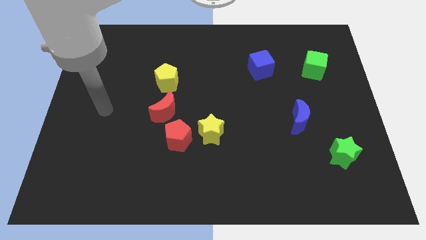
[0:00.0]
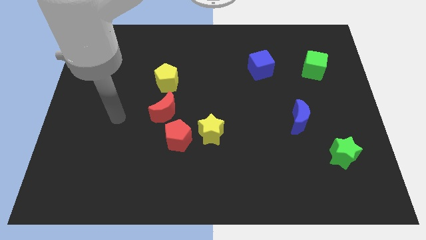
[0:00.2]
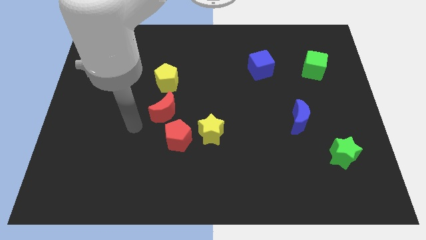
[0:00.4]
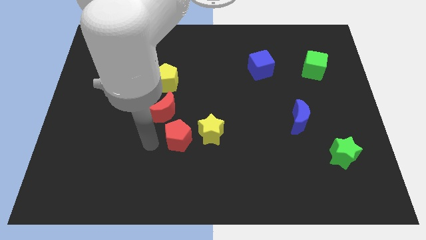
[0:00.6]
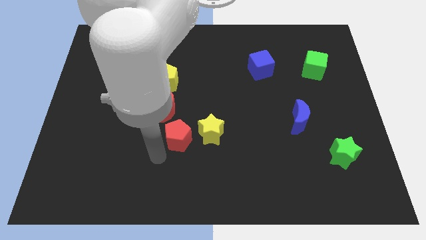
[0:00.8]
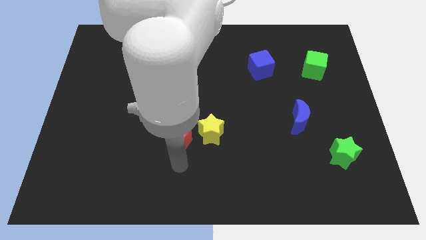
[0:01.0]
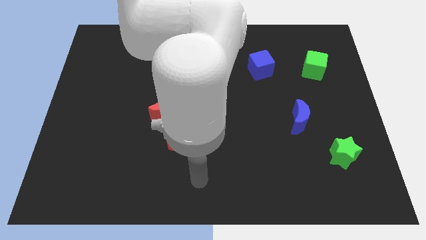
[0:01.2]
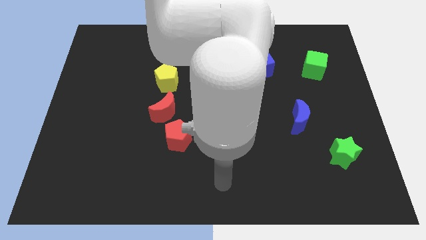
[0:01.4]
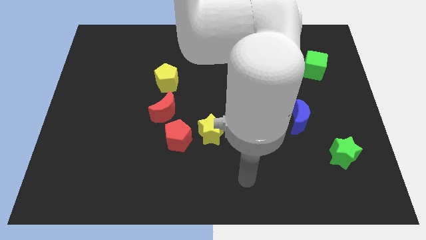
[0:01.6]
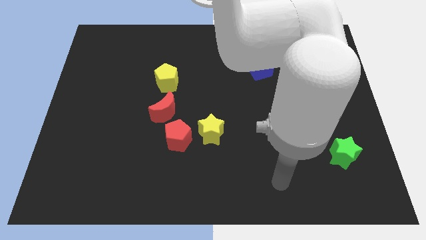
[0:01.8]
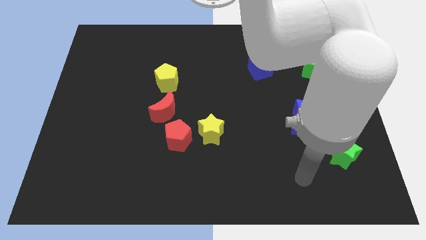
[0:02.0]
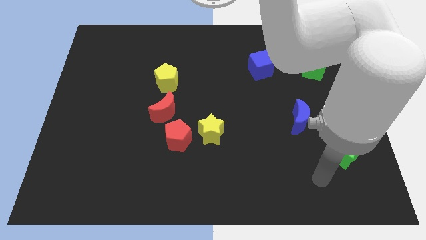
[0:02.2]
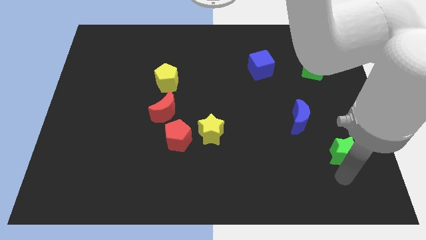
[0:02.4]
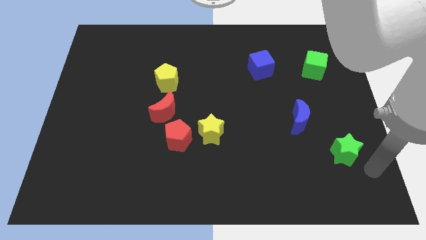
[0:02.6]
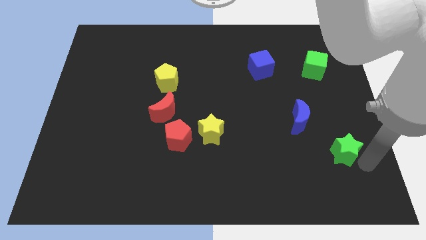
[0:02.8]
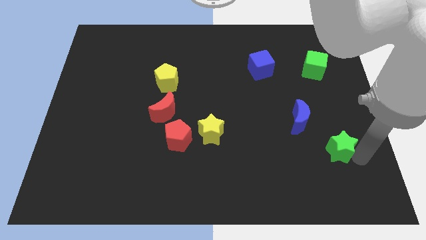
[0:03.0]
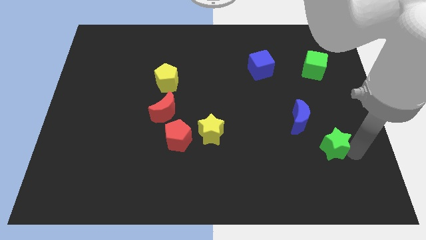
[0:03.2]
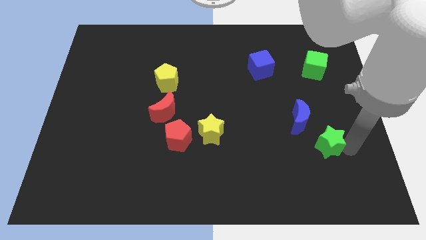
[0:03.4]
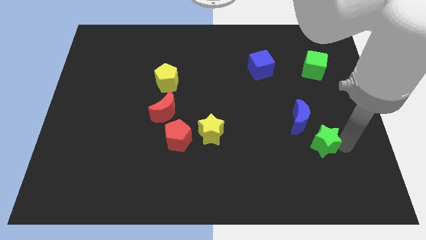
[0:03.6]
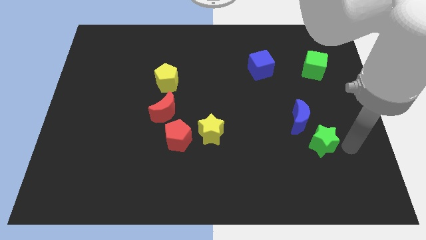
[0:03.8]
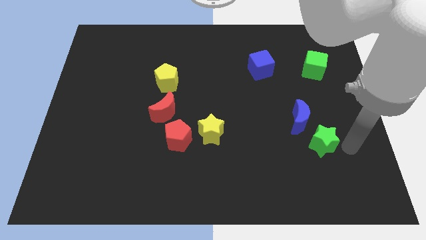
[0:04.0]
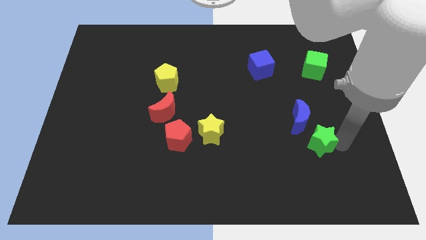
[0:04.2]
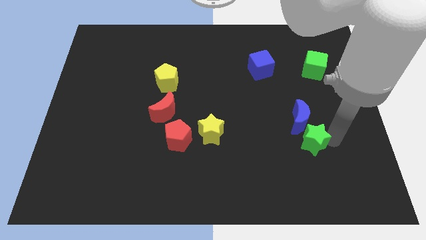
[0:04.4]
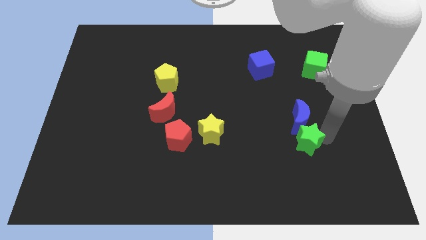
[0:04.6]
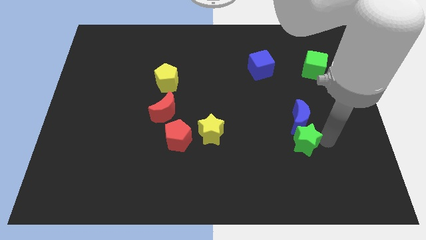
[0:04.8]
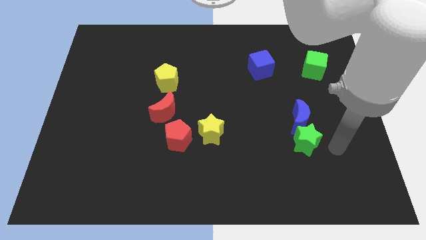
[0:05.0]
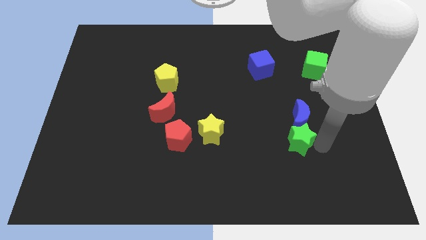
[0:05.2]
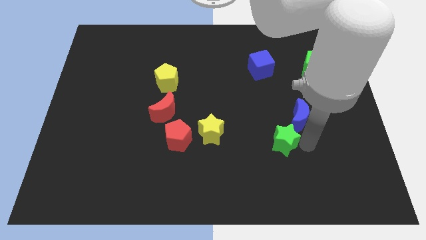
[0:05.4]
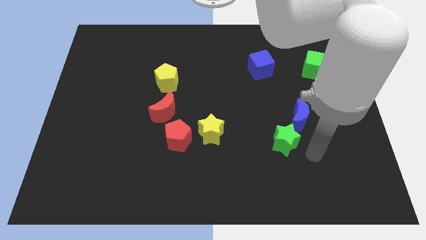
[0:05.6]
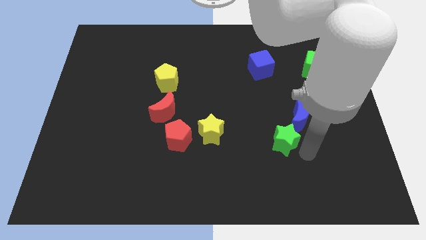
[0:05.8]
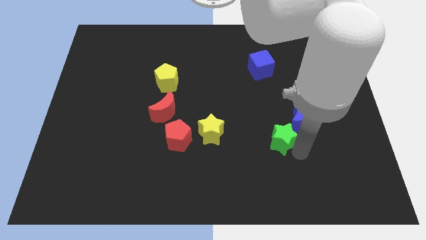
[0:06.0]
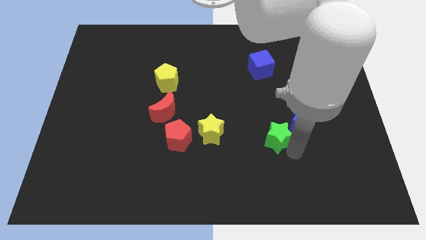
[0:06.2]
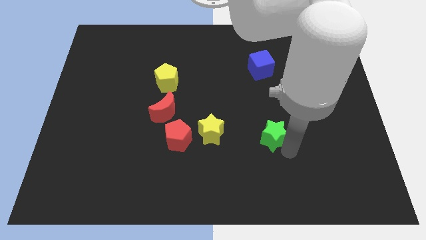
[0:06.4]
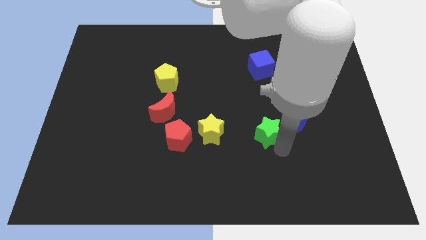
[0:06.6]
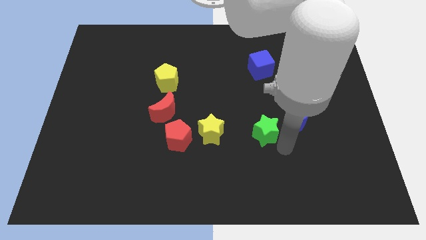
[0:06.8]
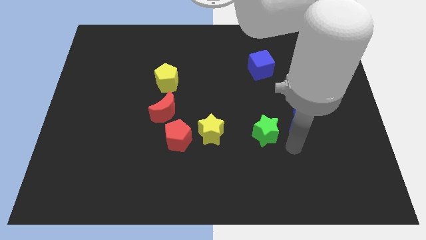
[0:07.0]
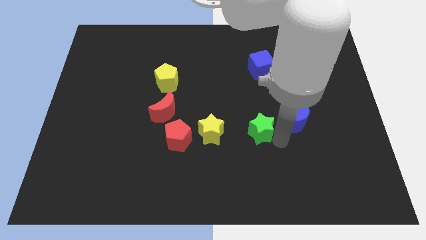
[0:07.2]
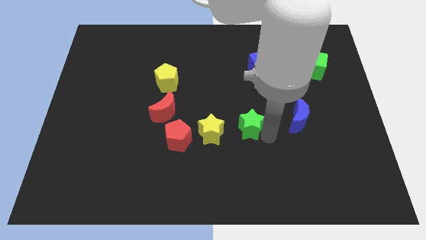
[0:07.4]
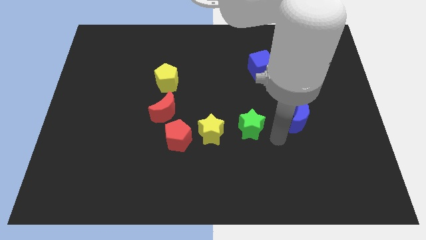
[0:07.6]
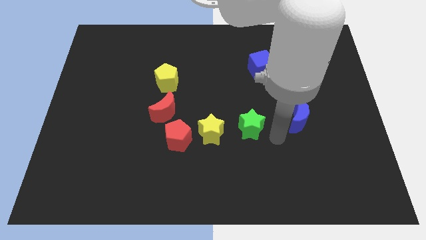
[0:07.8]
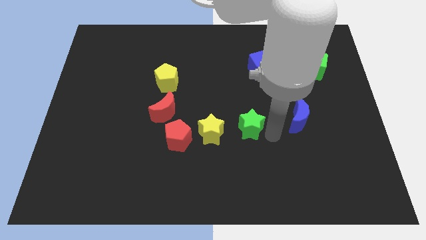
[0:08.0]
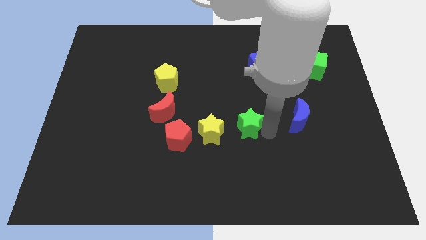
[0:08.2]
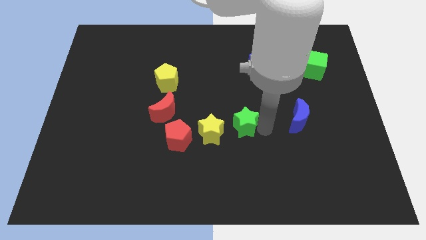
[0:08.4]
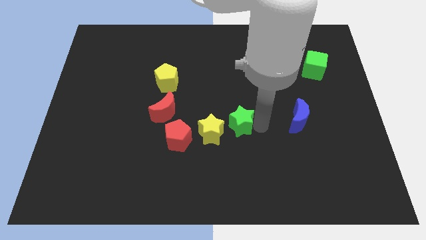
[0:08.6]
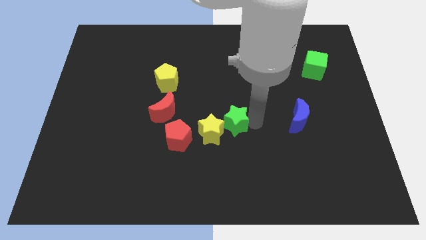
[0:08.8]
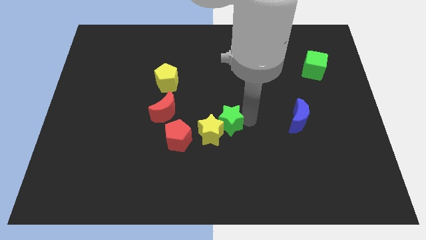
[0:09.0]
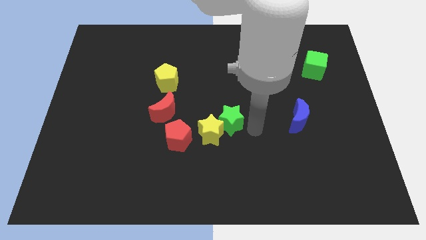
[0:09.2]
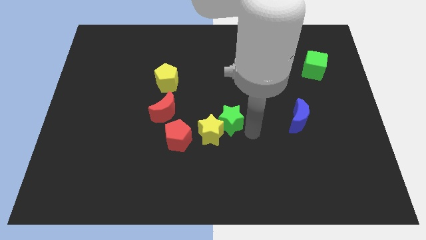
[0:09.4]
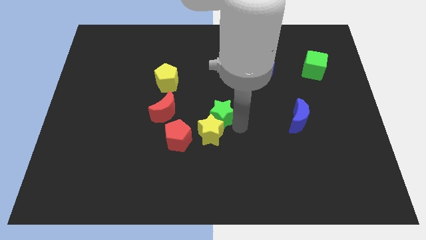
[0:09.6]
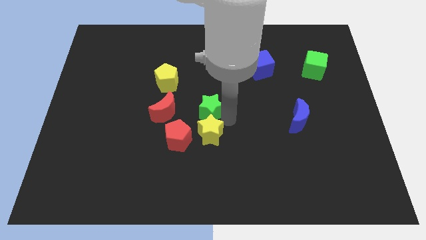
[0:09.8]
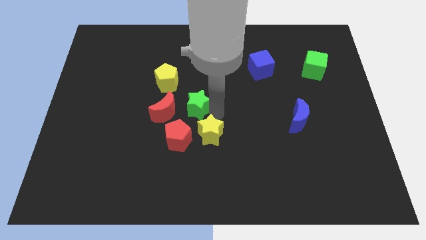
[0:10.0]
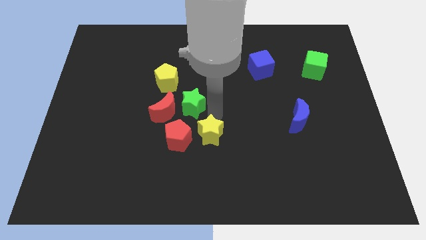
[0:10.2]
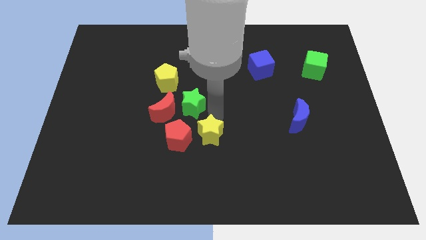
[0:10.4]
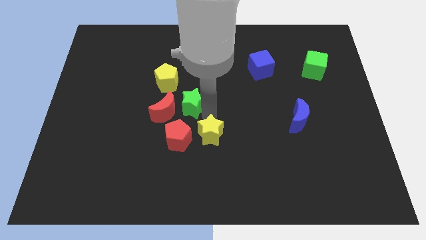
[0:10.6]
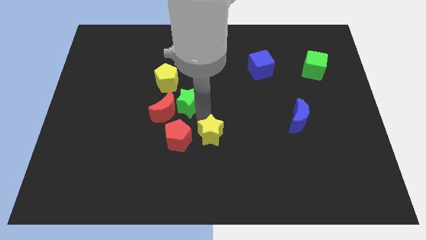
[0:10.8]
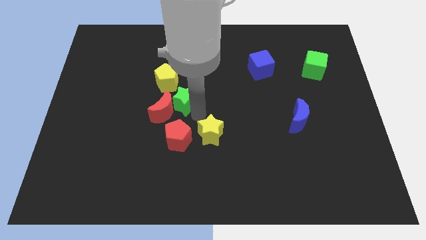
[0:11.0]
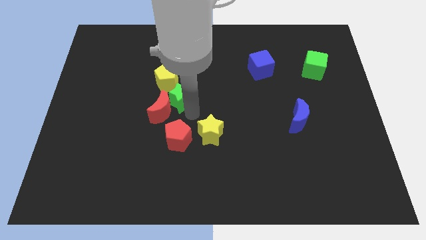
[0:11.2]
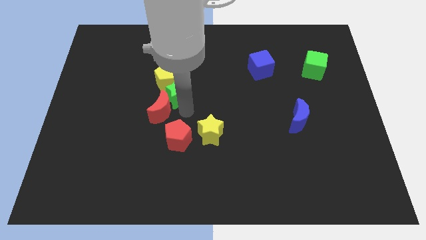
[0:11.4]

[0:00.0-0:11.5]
move the green star next to the yellow pentagon
